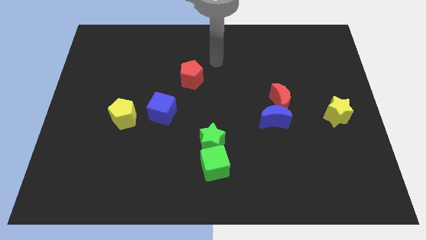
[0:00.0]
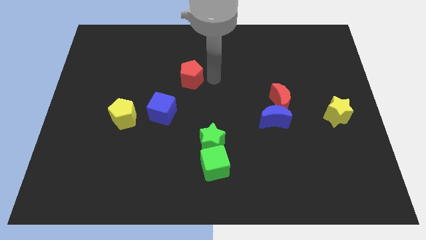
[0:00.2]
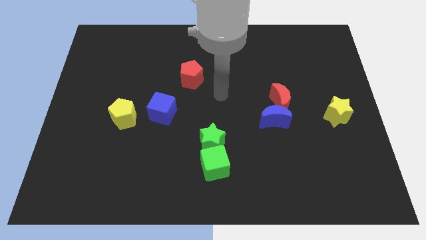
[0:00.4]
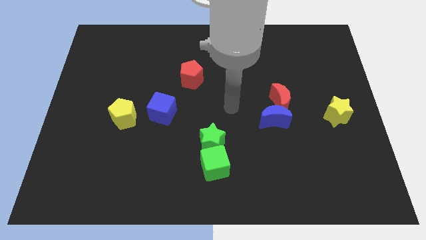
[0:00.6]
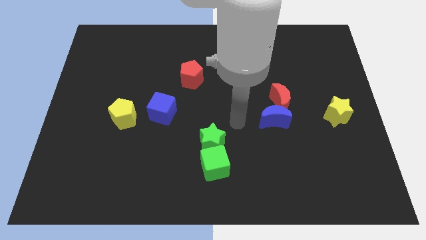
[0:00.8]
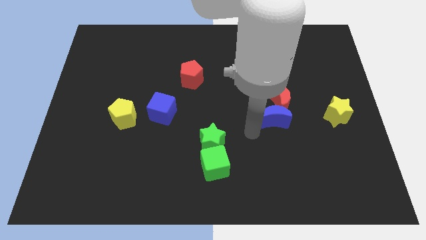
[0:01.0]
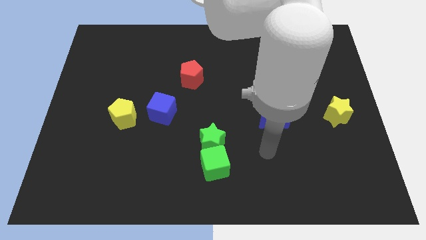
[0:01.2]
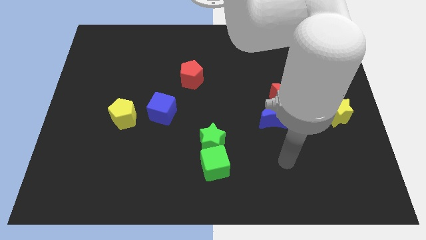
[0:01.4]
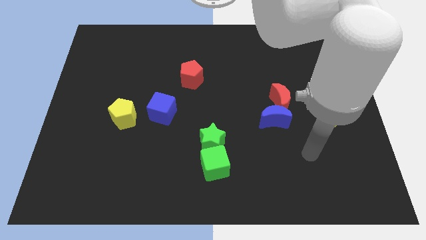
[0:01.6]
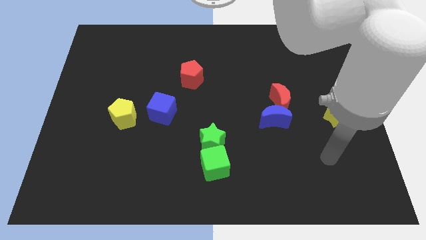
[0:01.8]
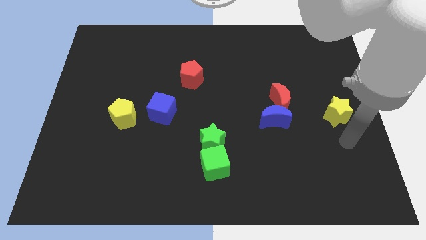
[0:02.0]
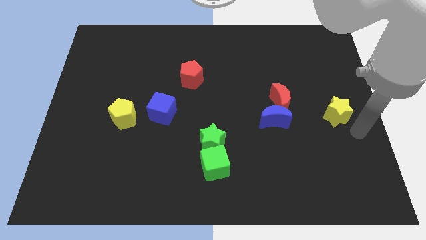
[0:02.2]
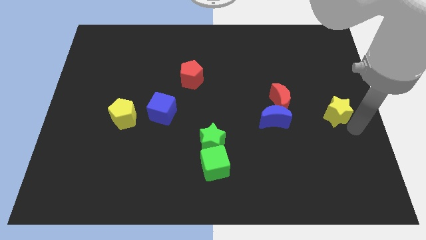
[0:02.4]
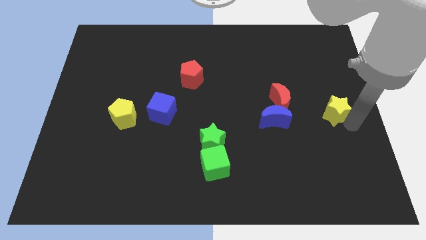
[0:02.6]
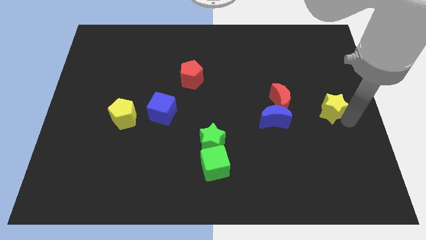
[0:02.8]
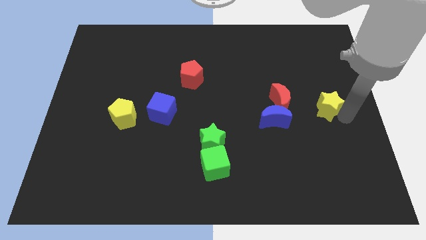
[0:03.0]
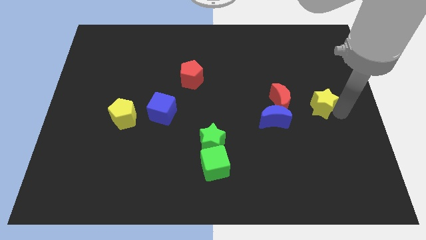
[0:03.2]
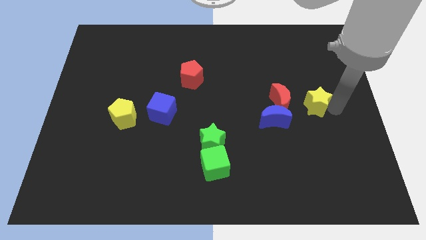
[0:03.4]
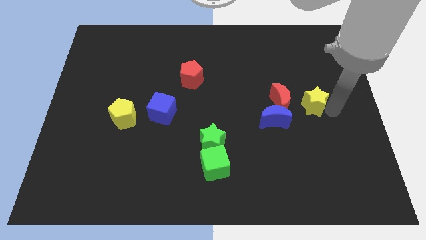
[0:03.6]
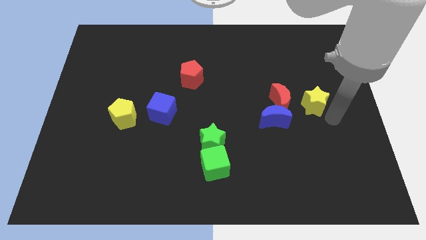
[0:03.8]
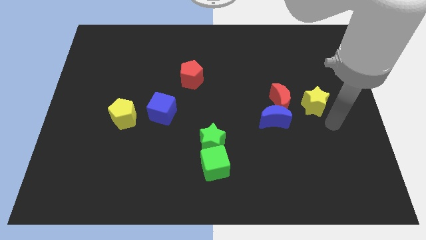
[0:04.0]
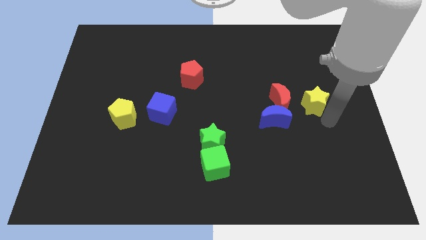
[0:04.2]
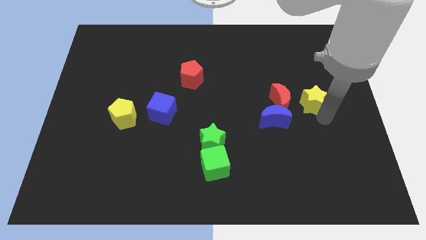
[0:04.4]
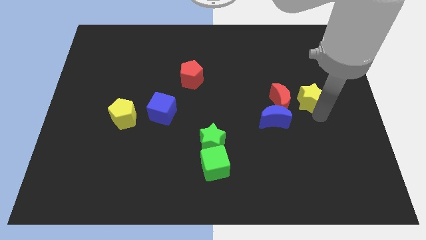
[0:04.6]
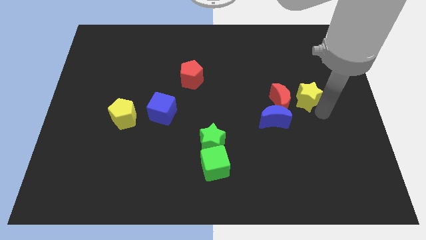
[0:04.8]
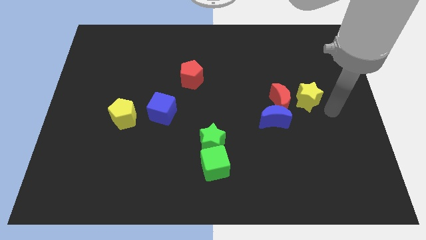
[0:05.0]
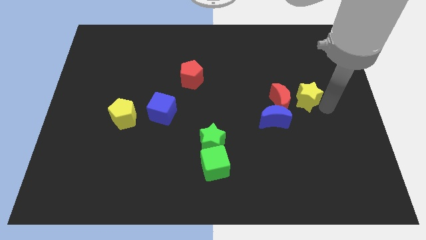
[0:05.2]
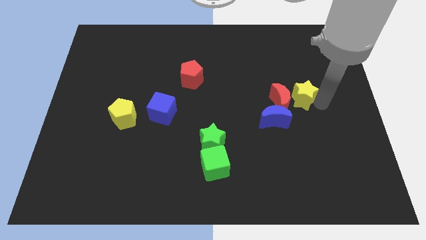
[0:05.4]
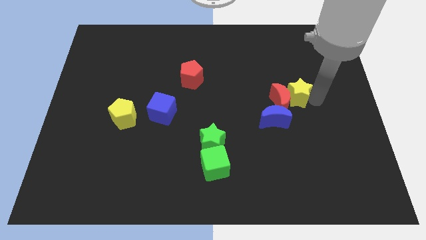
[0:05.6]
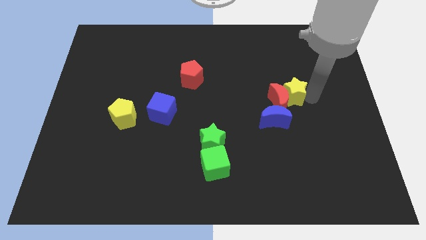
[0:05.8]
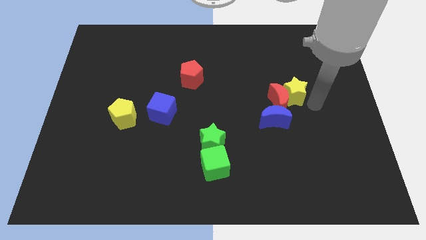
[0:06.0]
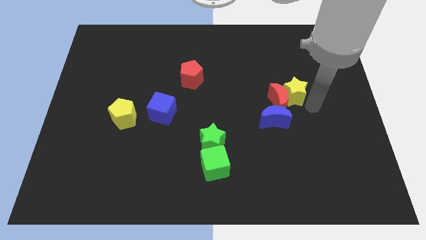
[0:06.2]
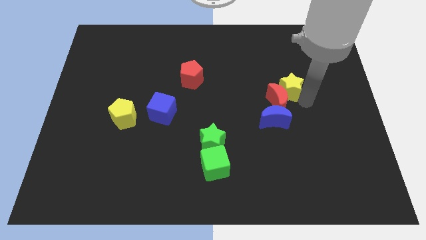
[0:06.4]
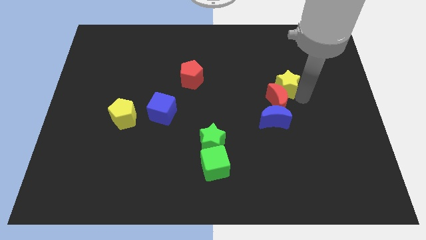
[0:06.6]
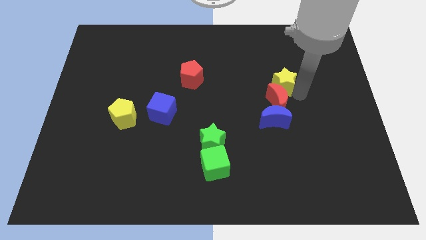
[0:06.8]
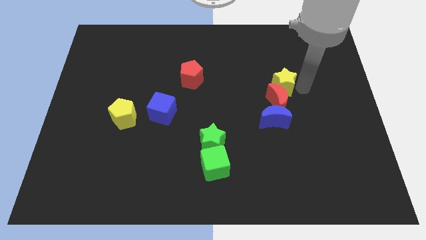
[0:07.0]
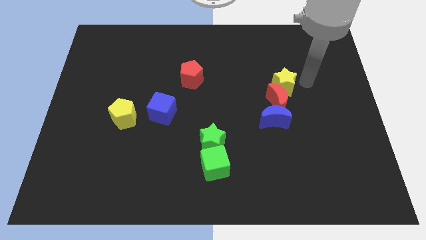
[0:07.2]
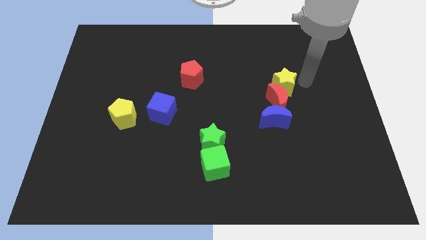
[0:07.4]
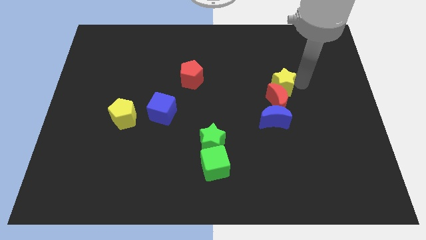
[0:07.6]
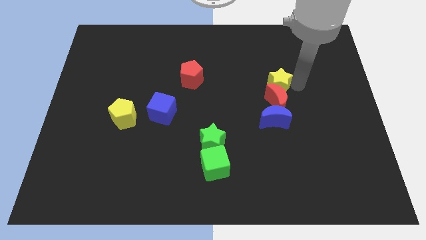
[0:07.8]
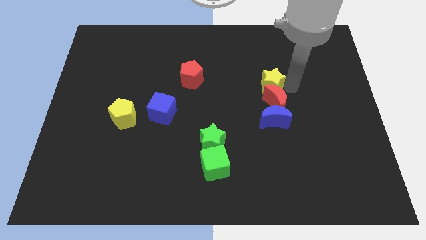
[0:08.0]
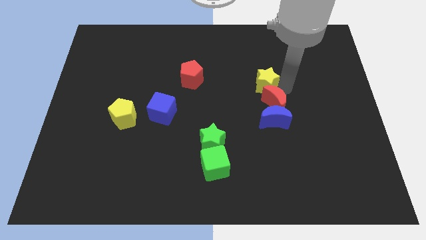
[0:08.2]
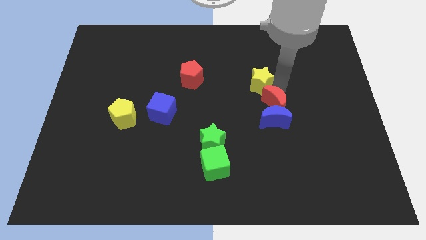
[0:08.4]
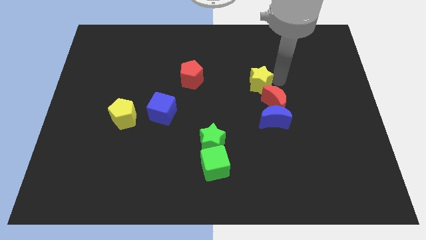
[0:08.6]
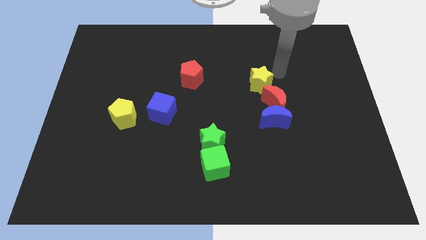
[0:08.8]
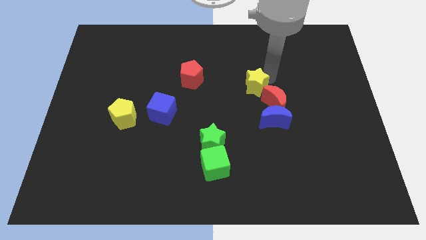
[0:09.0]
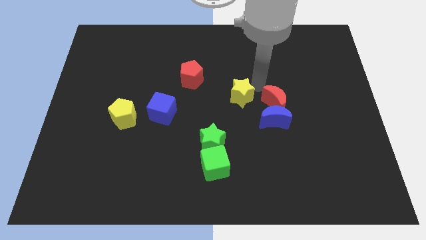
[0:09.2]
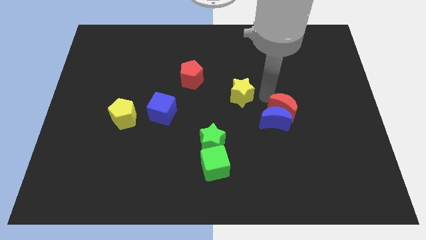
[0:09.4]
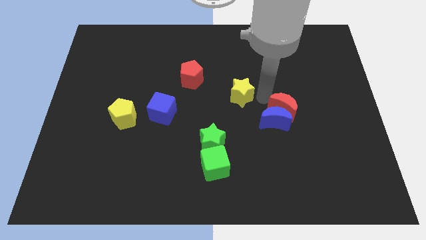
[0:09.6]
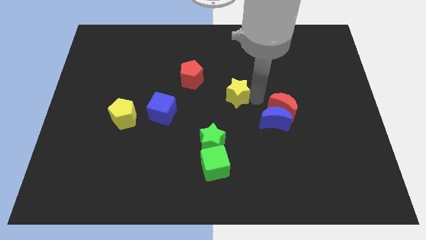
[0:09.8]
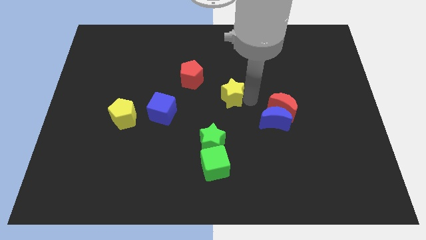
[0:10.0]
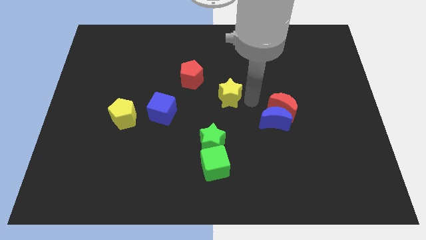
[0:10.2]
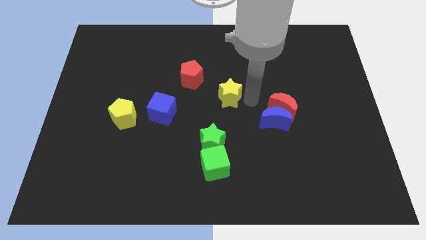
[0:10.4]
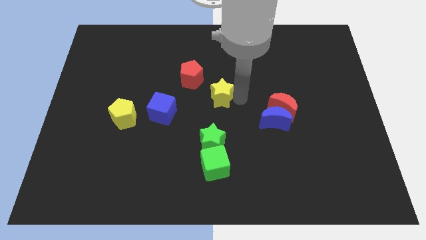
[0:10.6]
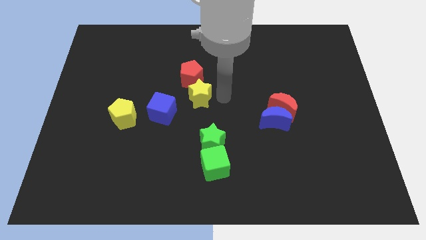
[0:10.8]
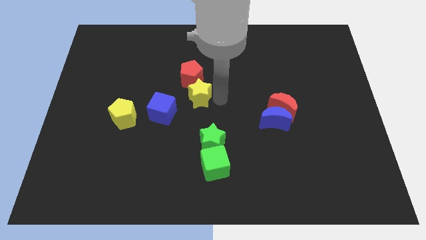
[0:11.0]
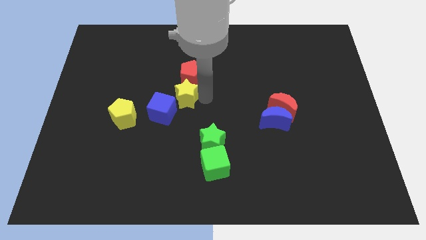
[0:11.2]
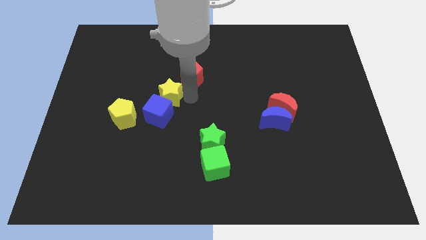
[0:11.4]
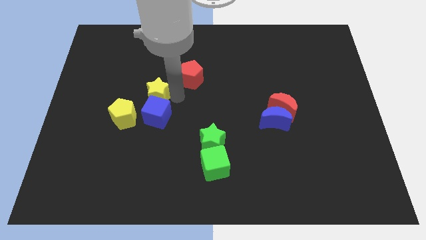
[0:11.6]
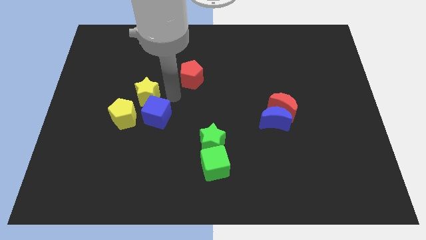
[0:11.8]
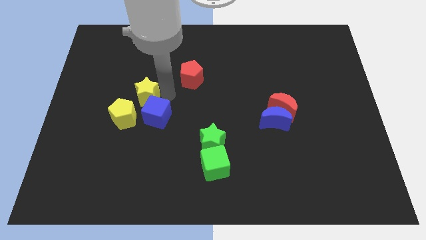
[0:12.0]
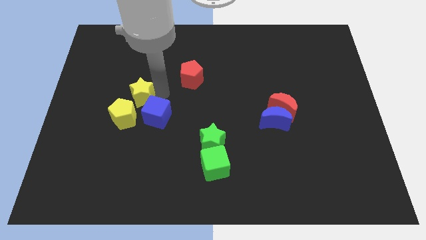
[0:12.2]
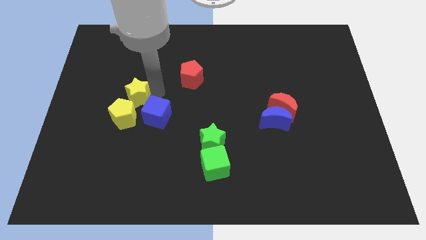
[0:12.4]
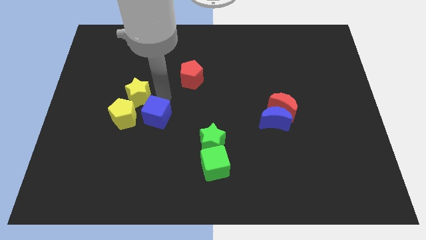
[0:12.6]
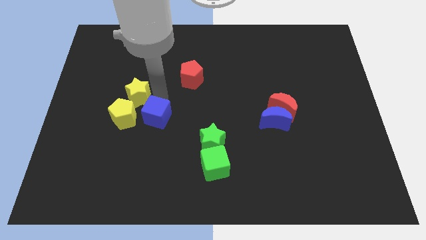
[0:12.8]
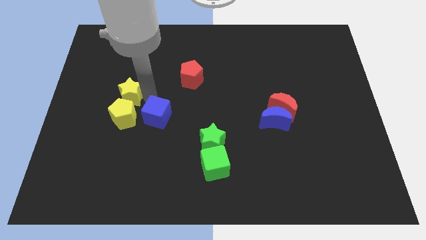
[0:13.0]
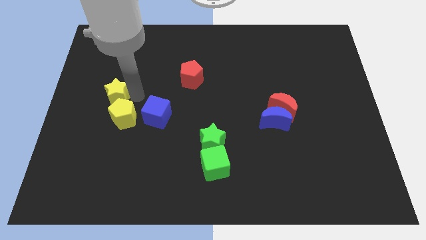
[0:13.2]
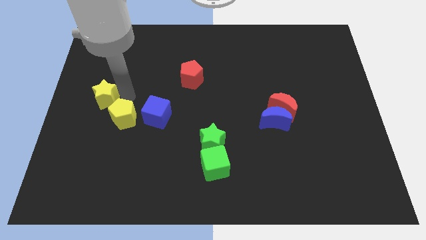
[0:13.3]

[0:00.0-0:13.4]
put the yellow star to the left side of the board

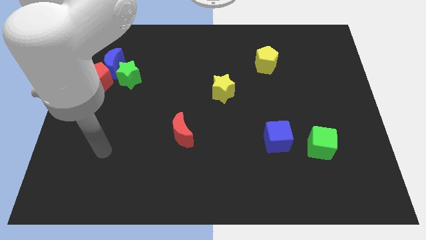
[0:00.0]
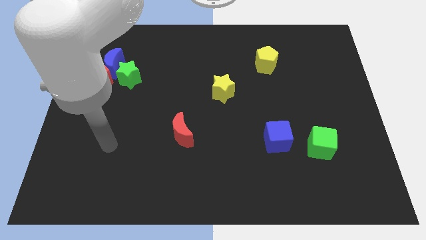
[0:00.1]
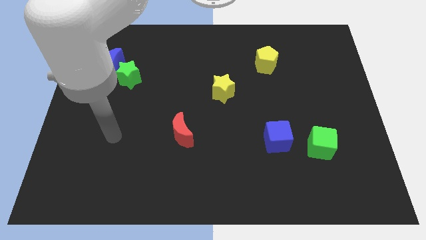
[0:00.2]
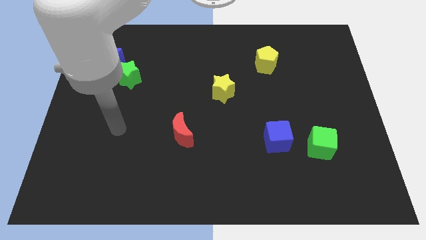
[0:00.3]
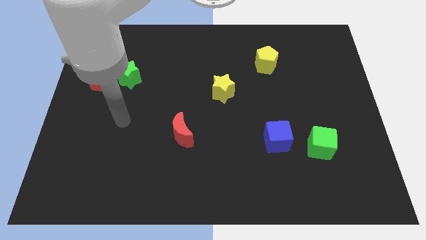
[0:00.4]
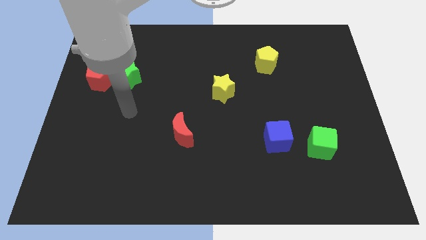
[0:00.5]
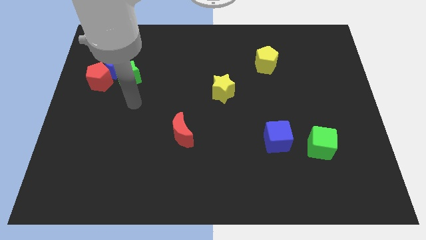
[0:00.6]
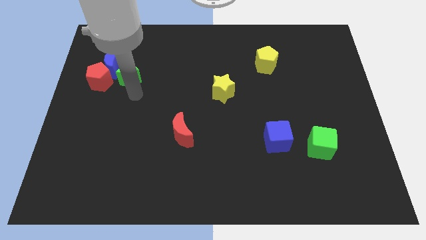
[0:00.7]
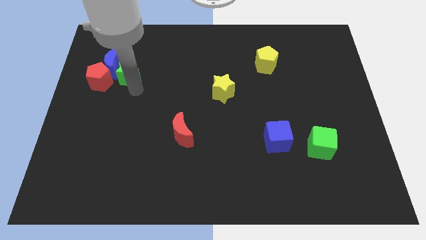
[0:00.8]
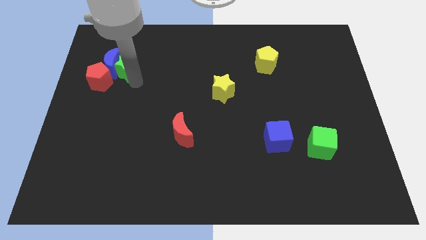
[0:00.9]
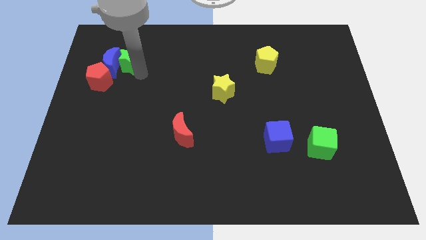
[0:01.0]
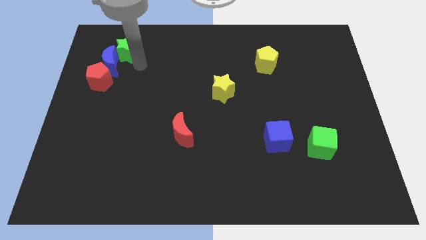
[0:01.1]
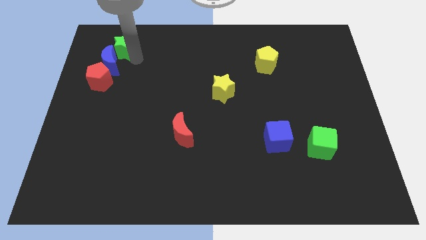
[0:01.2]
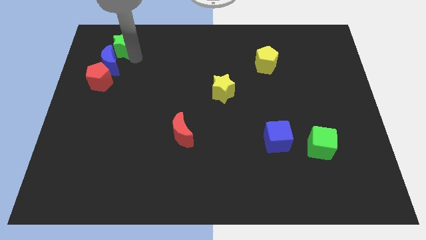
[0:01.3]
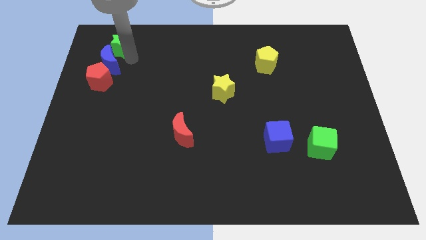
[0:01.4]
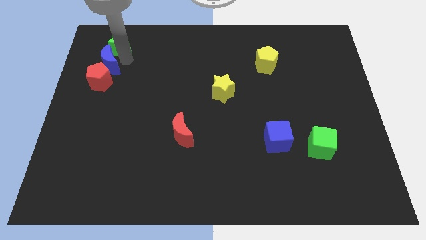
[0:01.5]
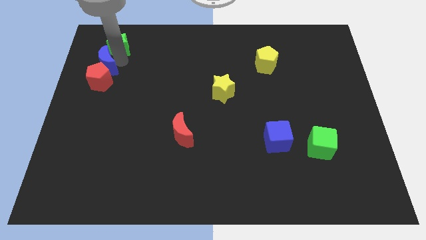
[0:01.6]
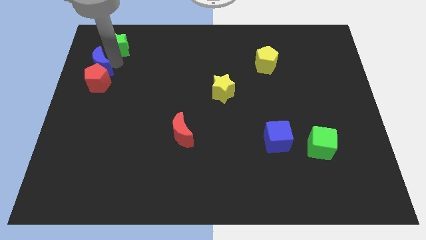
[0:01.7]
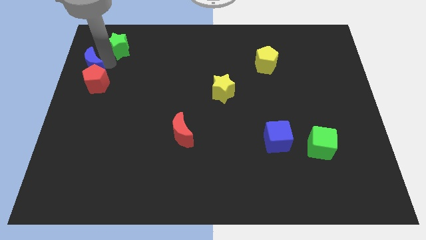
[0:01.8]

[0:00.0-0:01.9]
slide the blue moon to the left side of the board
